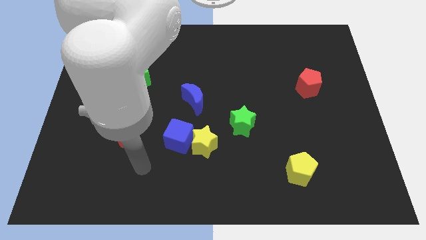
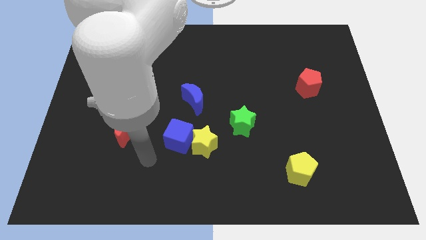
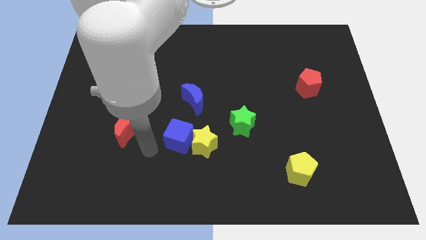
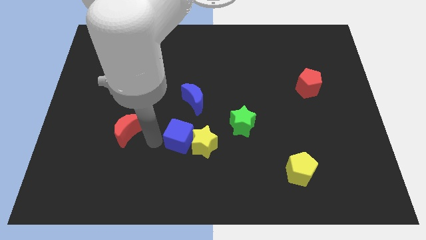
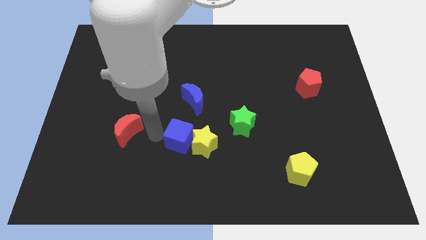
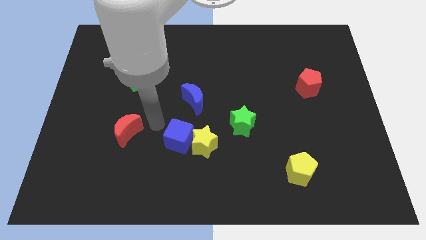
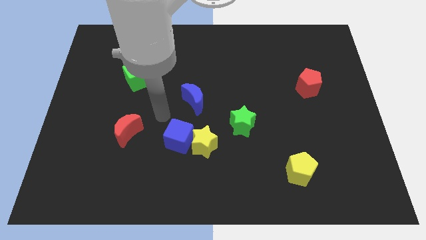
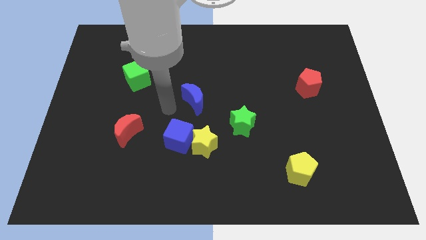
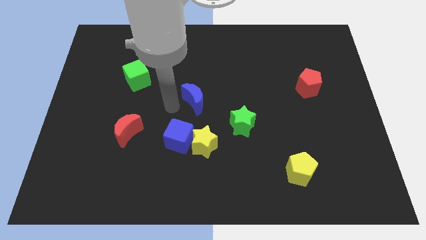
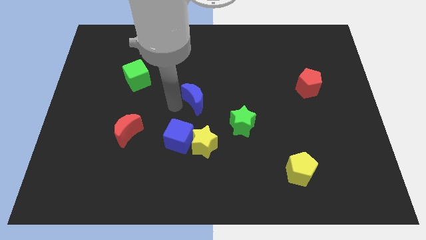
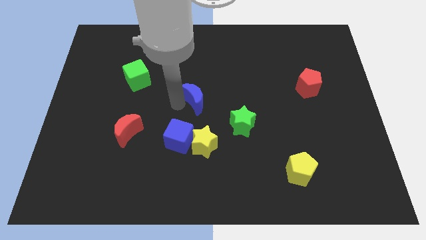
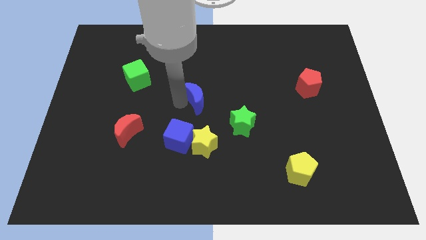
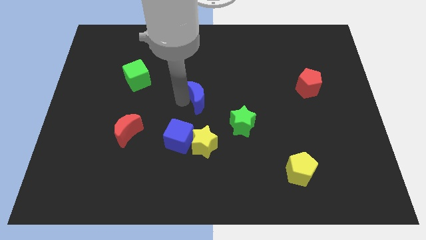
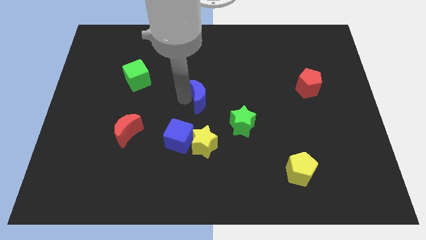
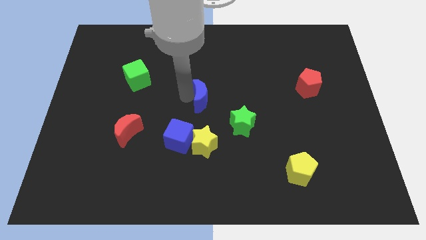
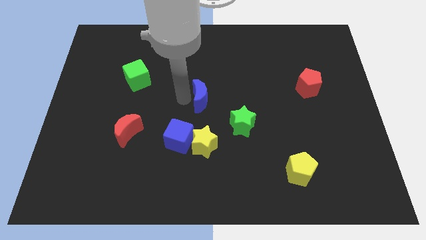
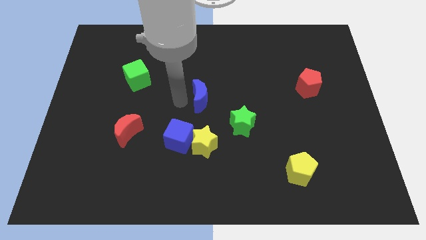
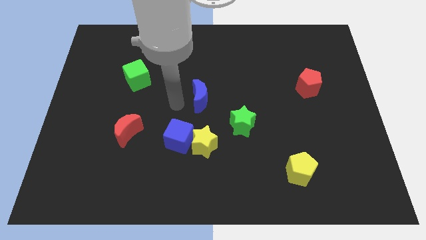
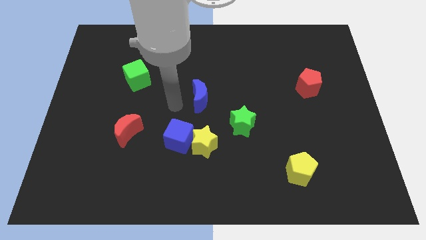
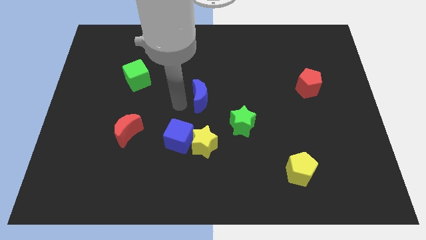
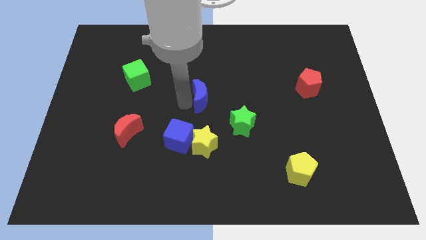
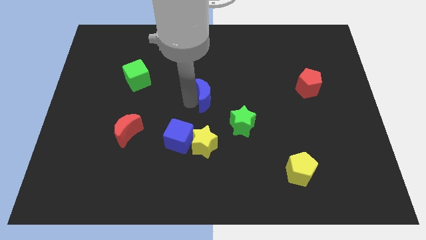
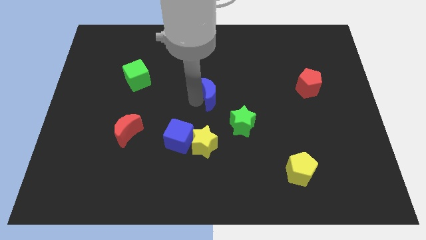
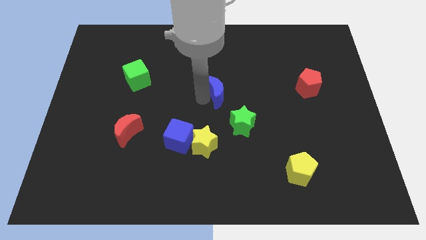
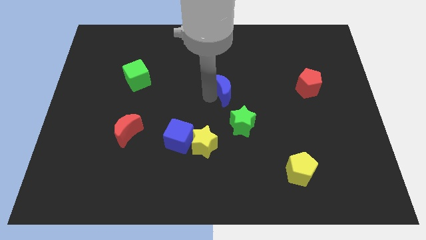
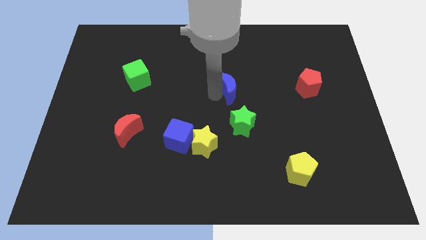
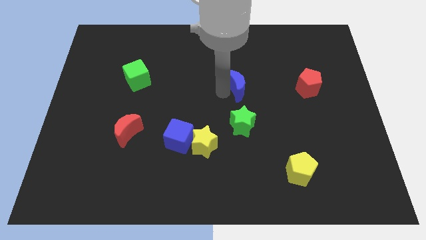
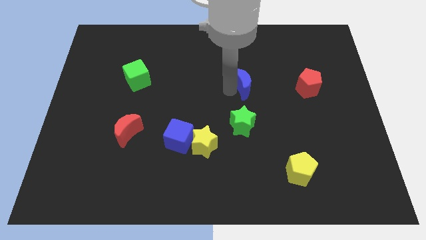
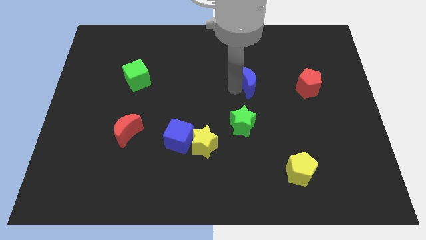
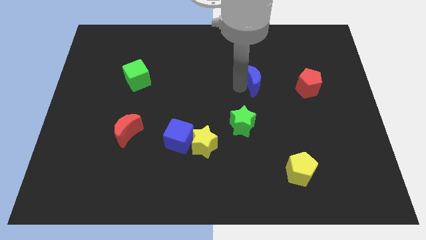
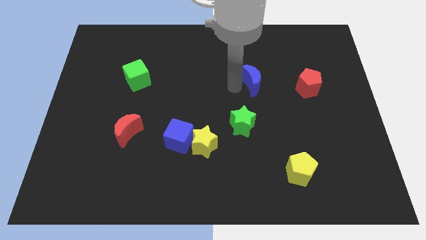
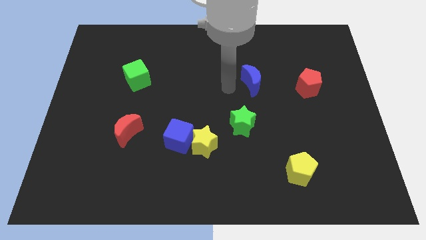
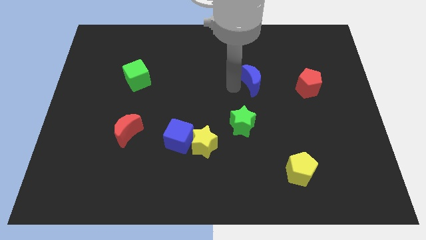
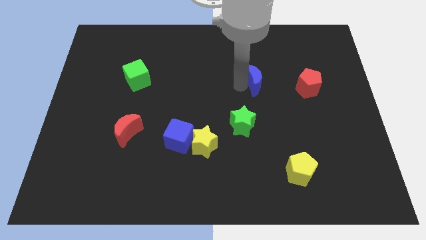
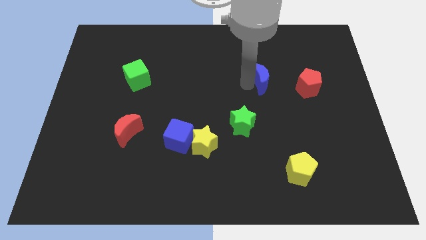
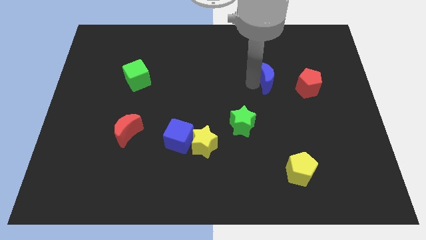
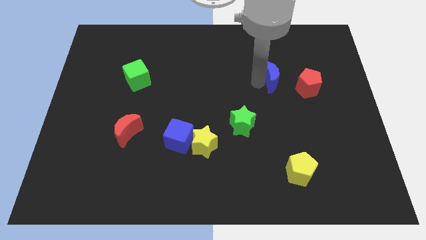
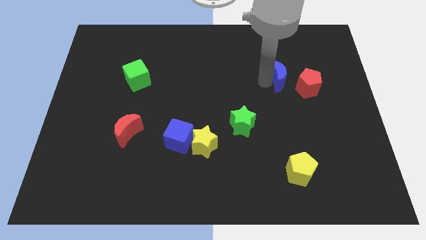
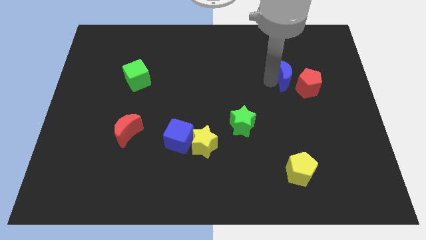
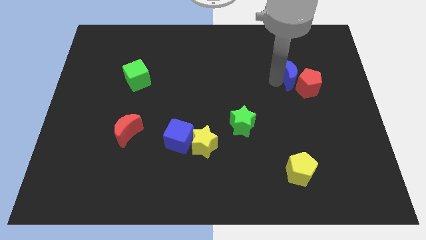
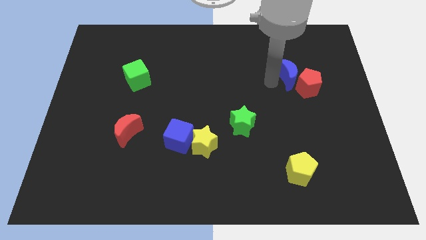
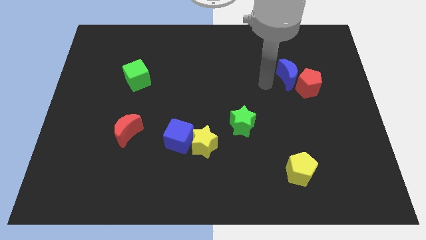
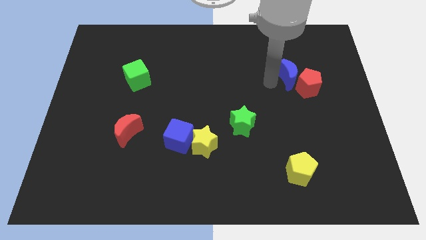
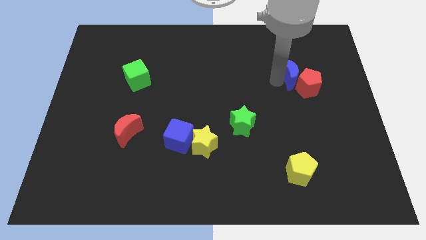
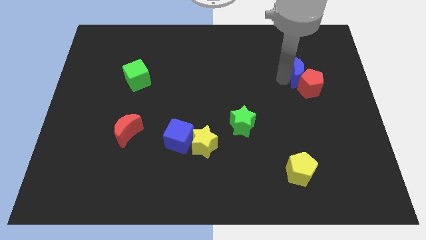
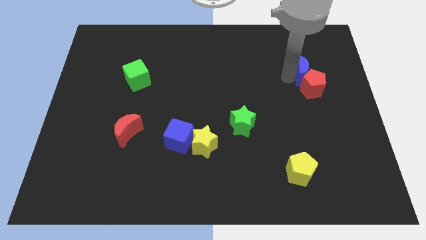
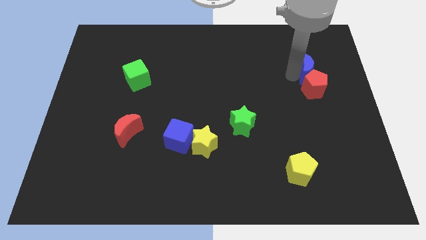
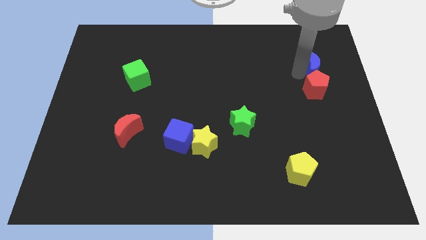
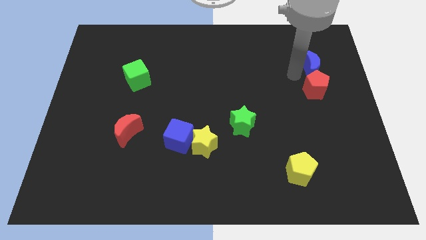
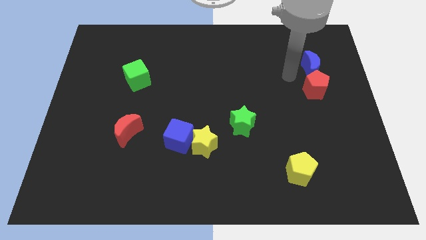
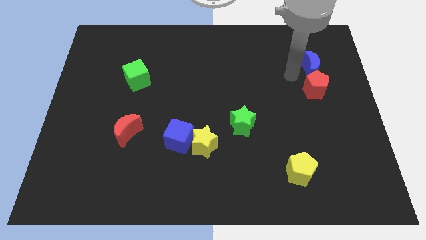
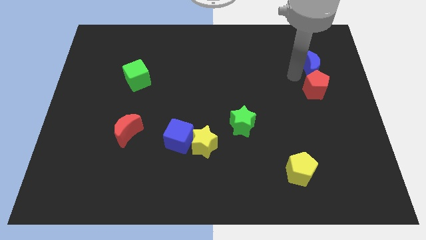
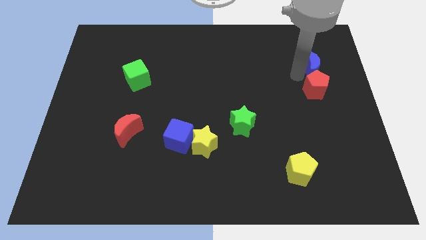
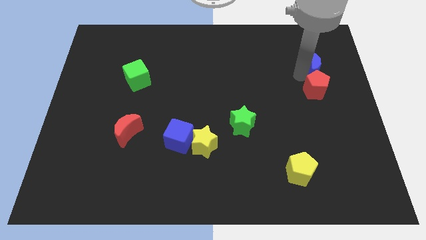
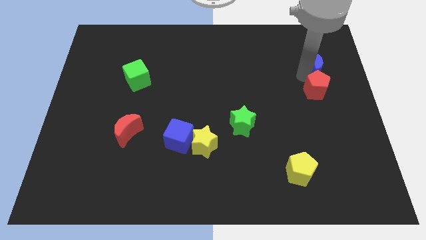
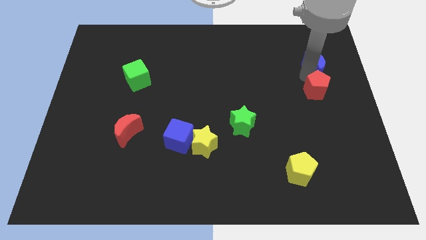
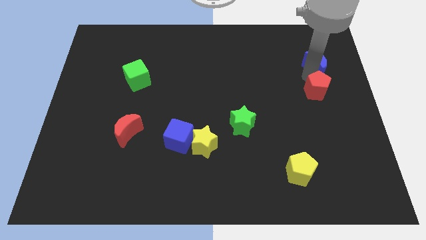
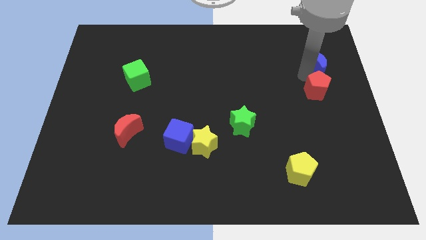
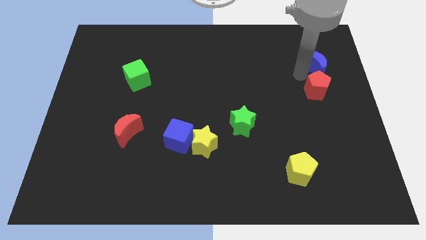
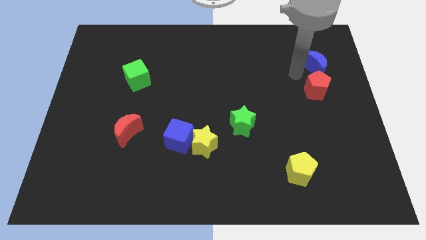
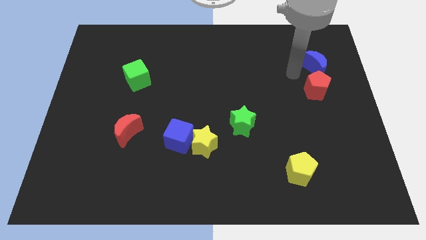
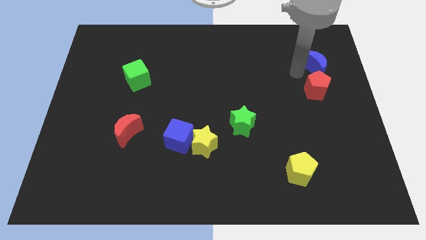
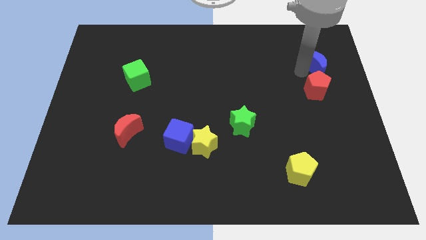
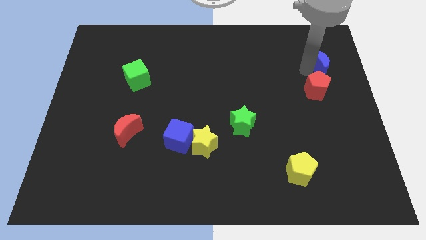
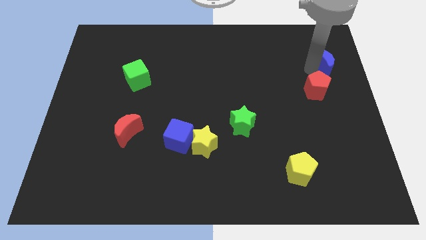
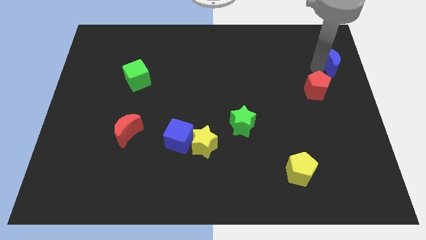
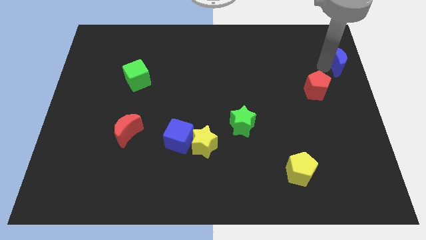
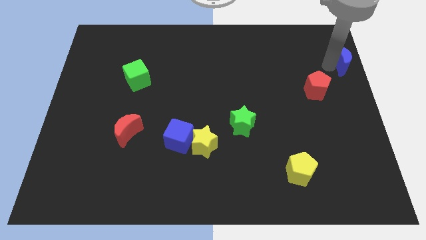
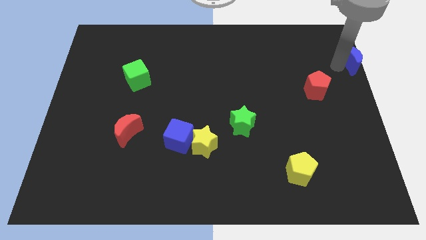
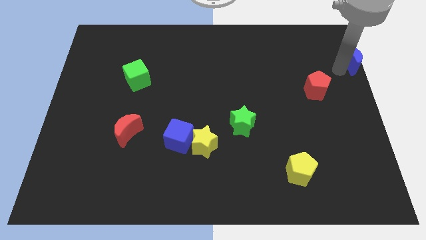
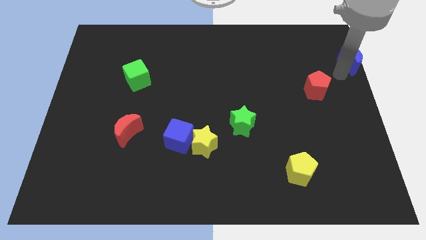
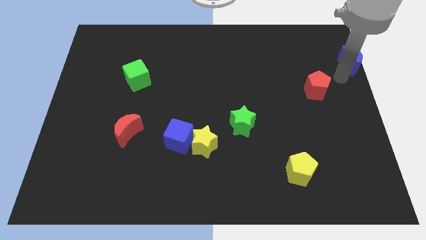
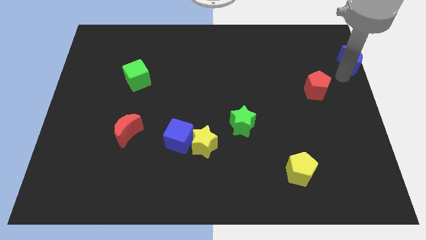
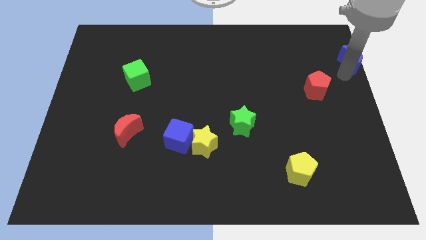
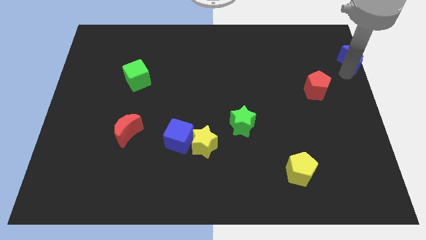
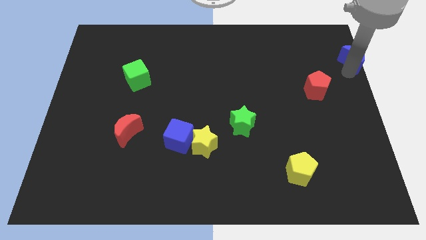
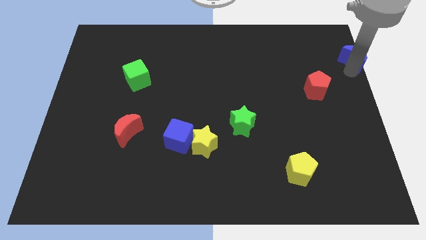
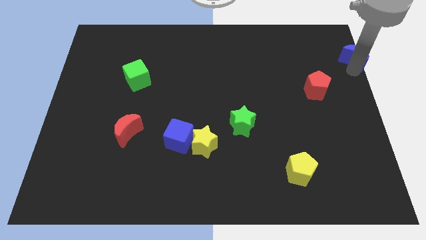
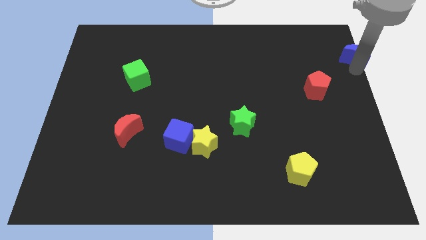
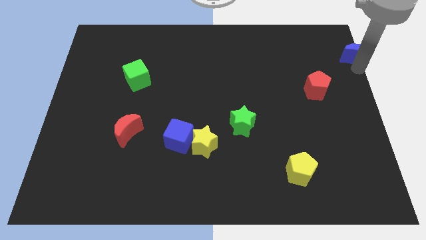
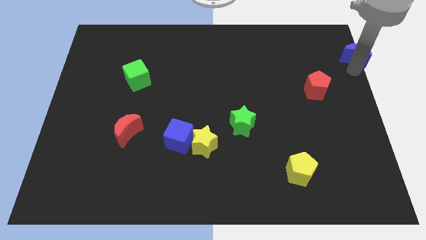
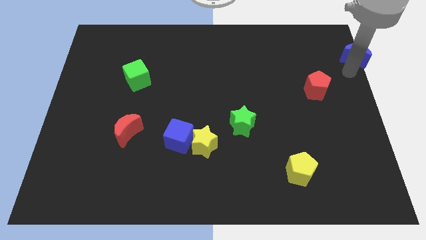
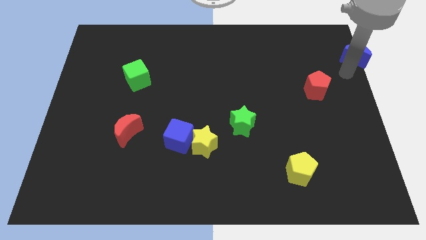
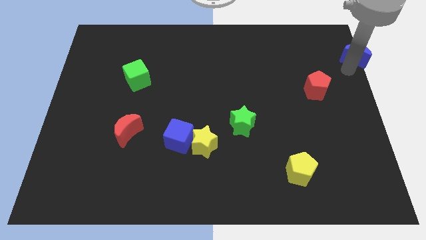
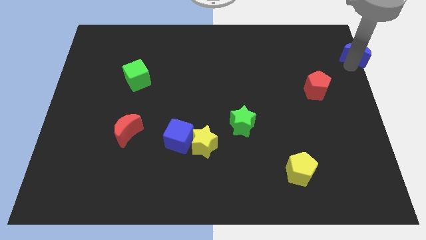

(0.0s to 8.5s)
move the blue moon to the top right
